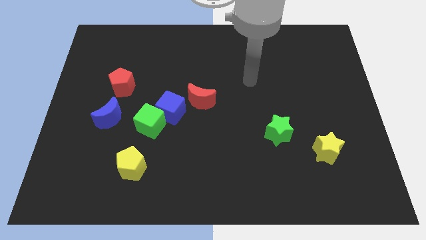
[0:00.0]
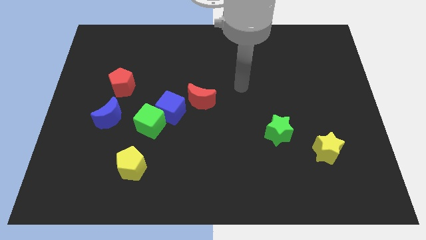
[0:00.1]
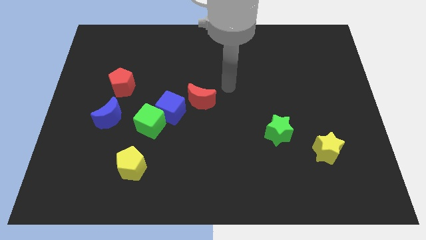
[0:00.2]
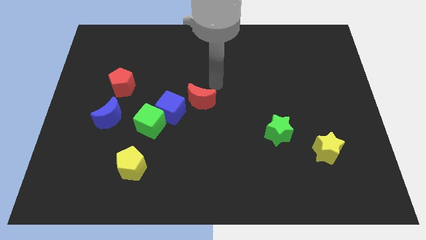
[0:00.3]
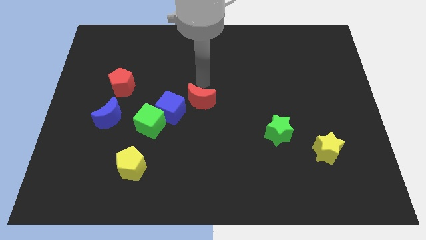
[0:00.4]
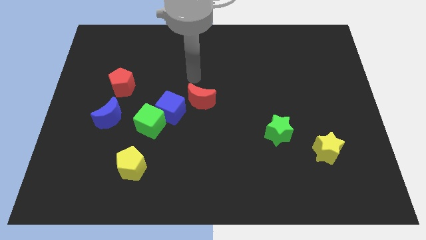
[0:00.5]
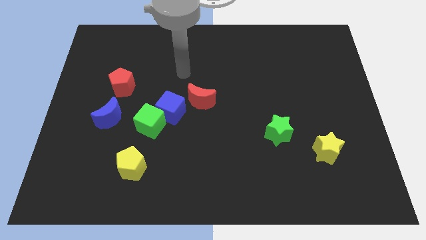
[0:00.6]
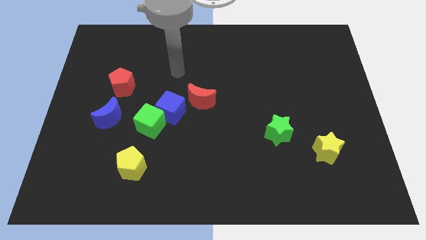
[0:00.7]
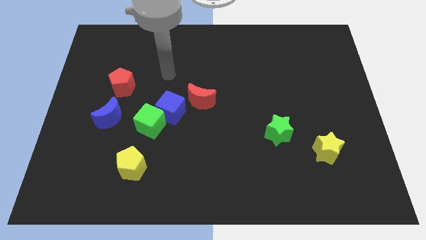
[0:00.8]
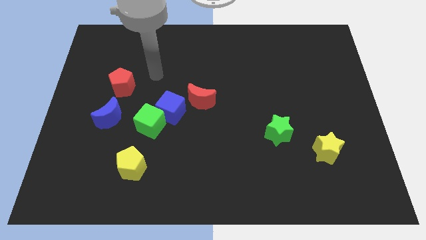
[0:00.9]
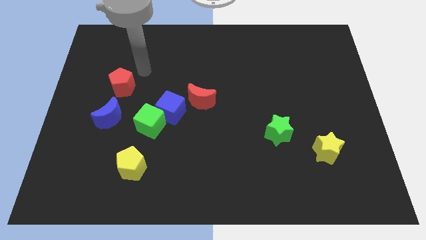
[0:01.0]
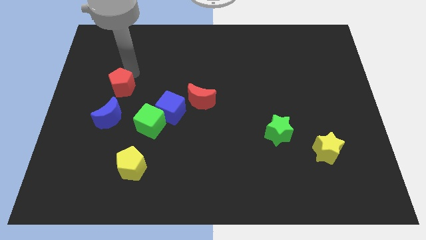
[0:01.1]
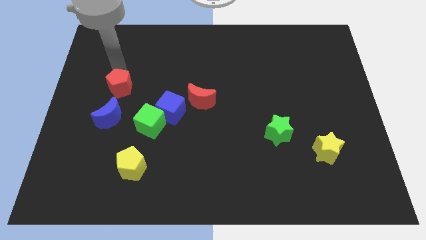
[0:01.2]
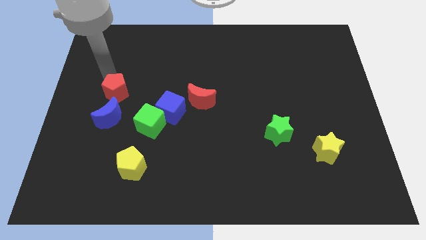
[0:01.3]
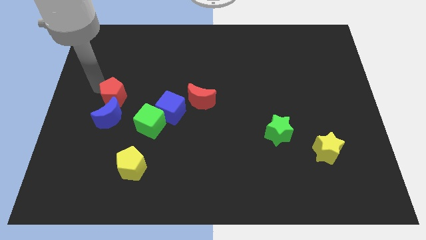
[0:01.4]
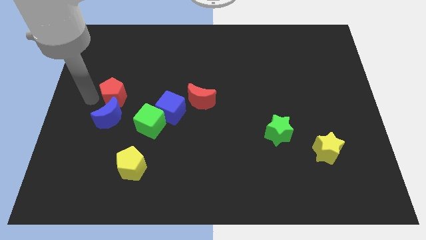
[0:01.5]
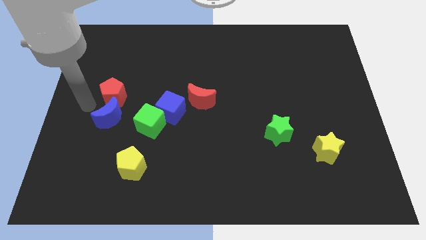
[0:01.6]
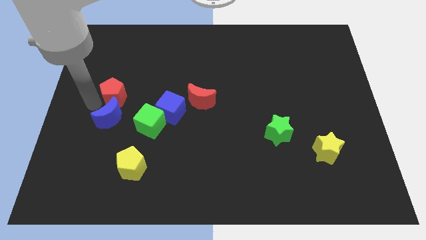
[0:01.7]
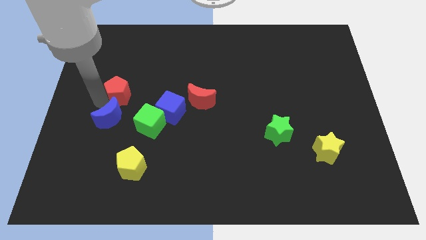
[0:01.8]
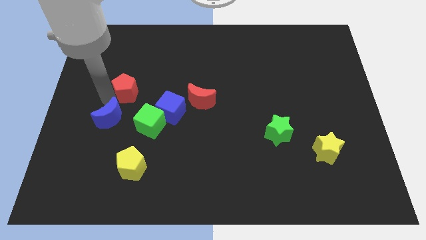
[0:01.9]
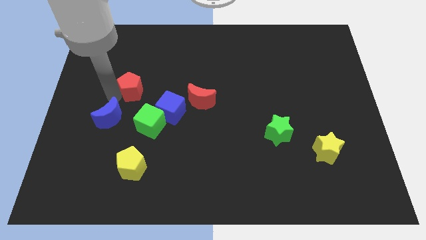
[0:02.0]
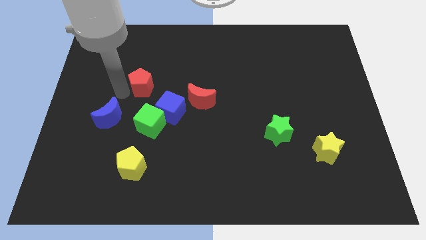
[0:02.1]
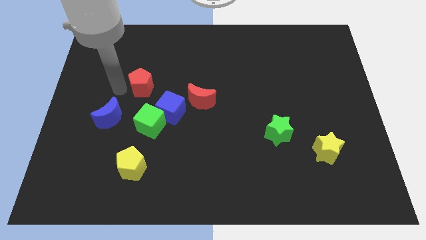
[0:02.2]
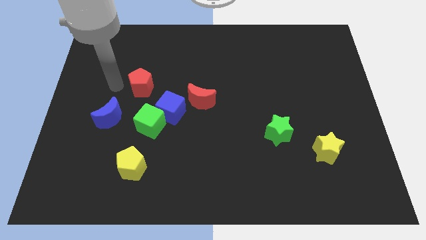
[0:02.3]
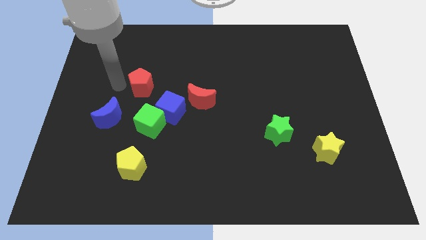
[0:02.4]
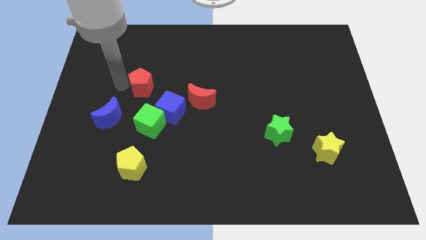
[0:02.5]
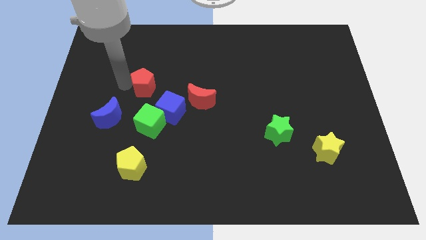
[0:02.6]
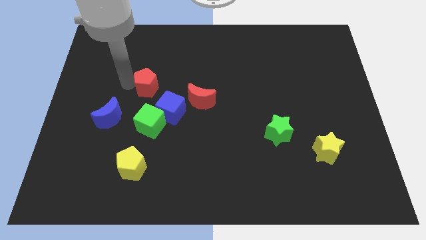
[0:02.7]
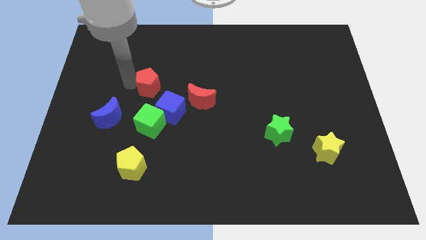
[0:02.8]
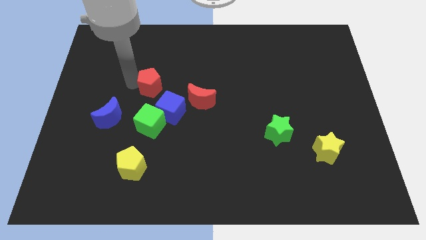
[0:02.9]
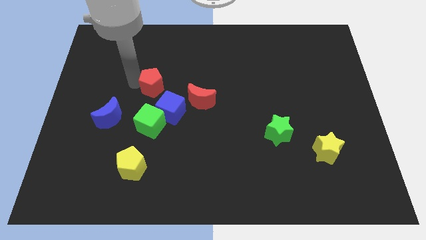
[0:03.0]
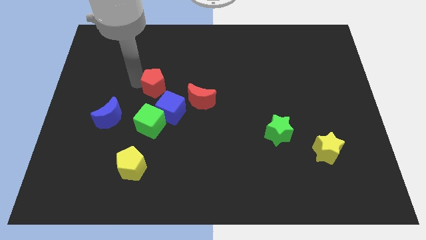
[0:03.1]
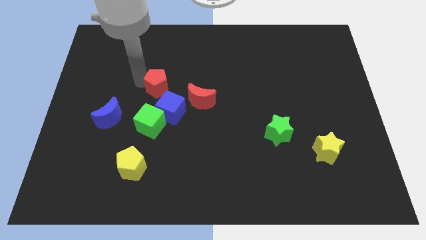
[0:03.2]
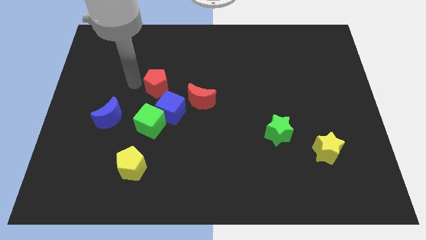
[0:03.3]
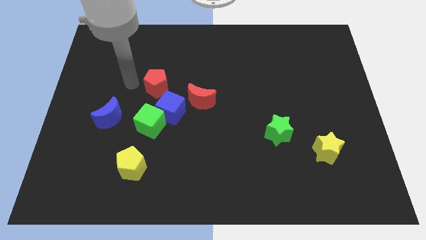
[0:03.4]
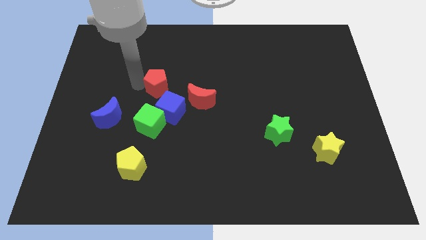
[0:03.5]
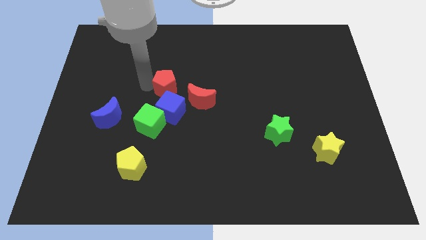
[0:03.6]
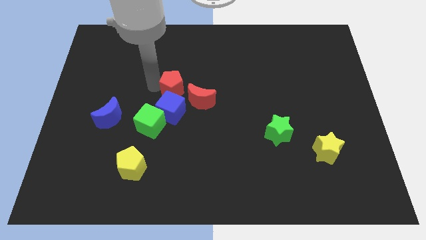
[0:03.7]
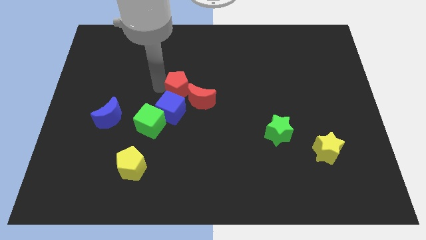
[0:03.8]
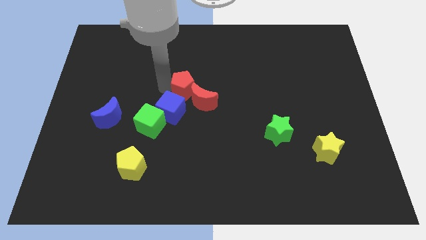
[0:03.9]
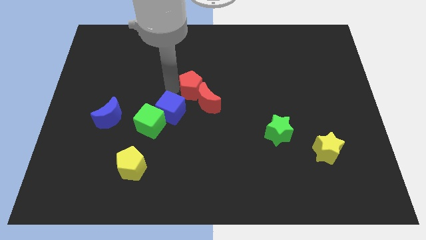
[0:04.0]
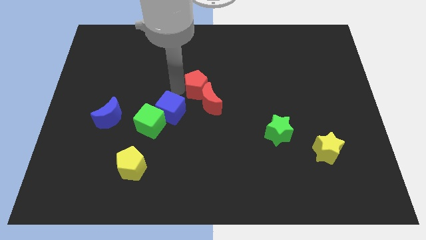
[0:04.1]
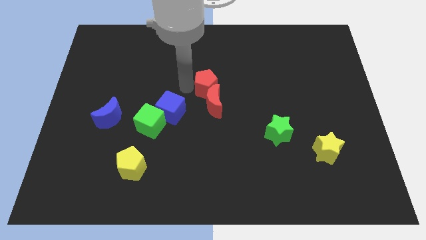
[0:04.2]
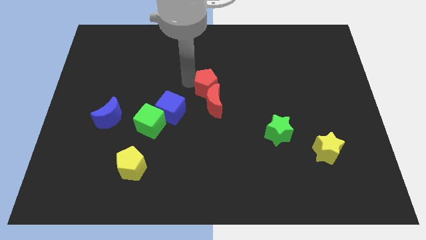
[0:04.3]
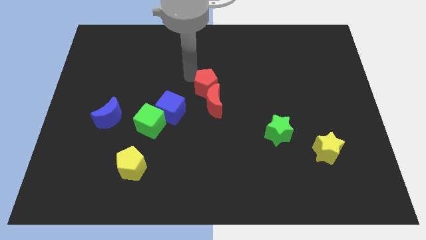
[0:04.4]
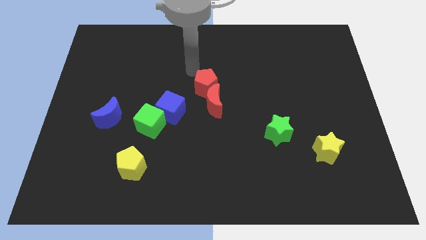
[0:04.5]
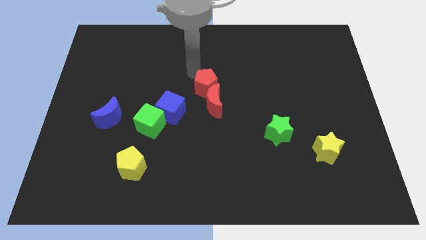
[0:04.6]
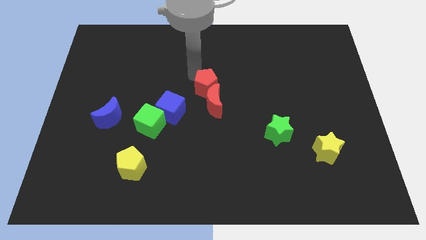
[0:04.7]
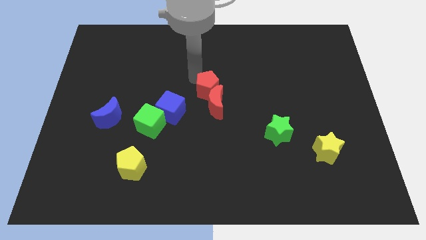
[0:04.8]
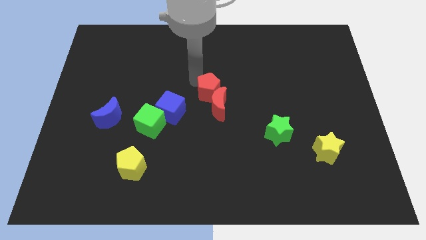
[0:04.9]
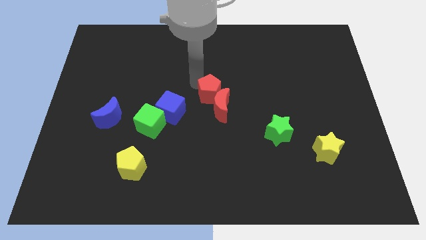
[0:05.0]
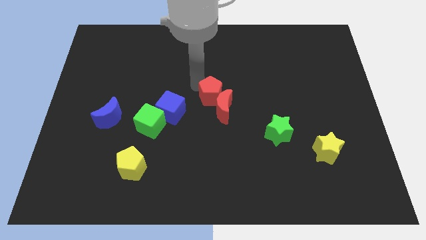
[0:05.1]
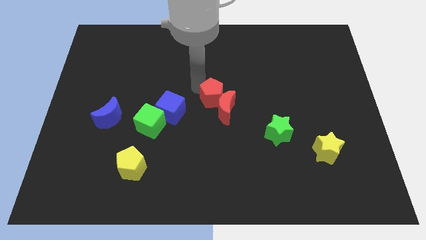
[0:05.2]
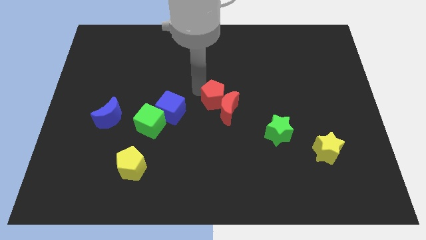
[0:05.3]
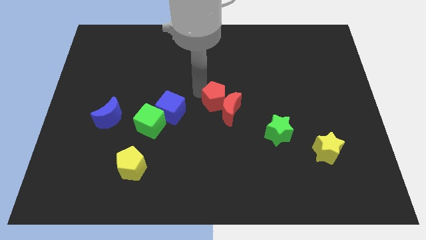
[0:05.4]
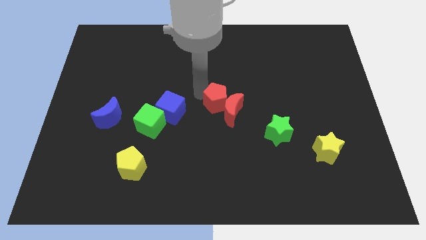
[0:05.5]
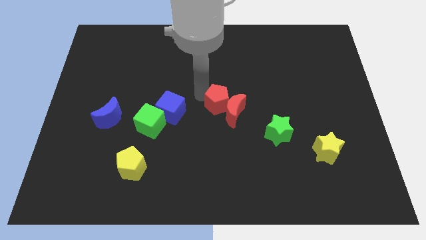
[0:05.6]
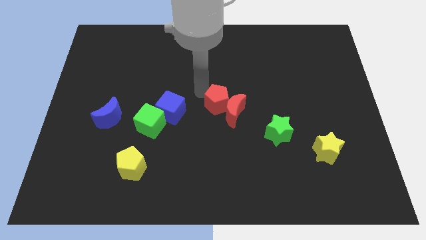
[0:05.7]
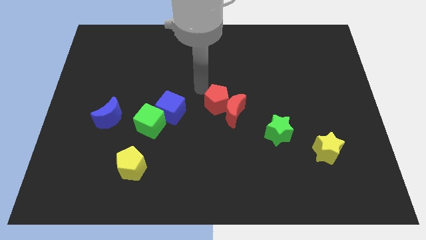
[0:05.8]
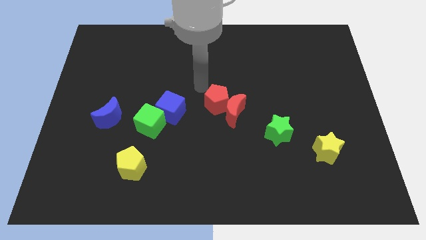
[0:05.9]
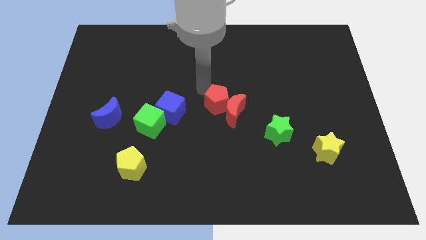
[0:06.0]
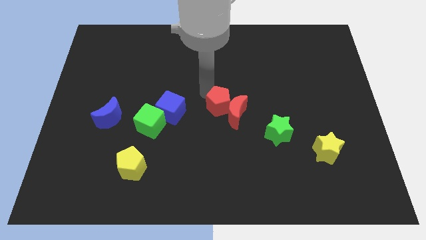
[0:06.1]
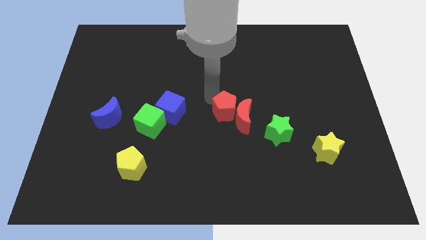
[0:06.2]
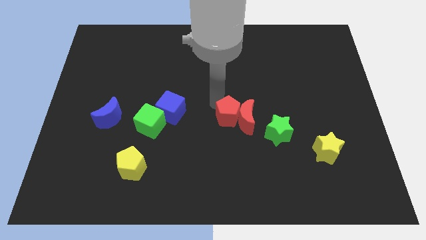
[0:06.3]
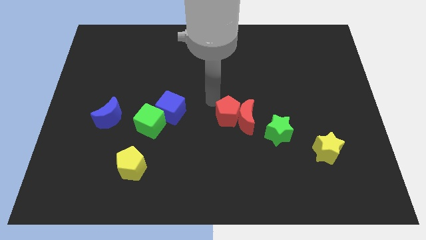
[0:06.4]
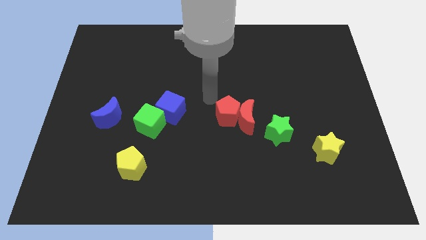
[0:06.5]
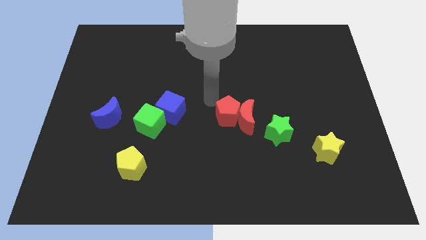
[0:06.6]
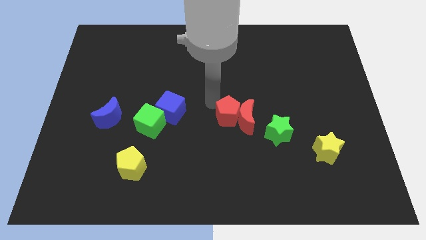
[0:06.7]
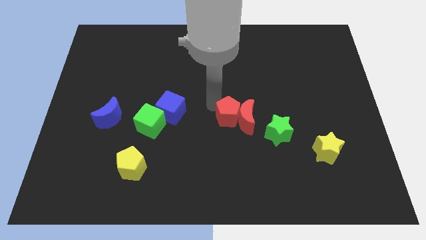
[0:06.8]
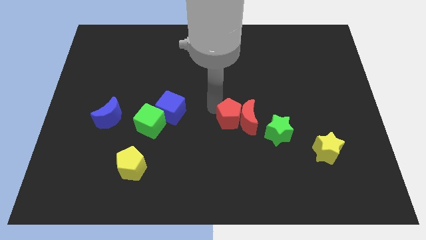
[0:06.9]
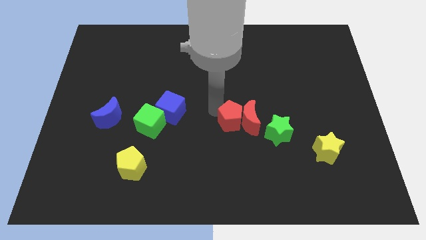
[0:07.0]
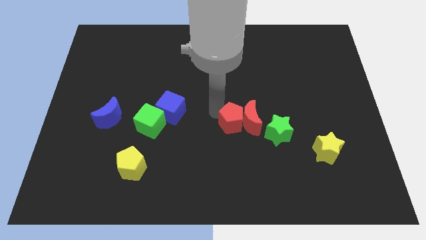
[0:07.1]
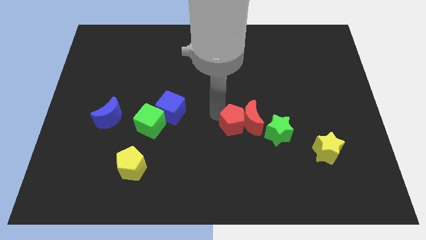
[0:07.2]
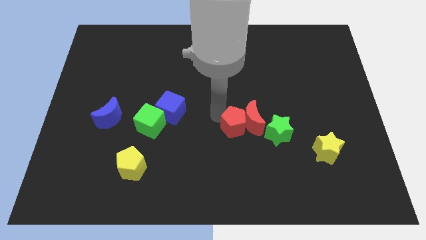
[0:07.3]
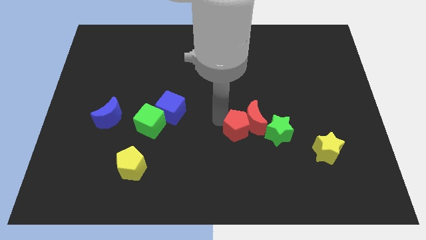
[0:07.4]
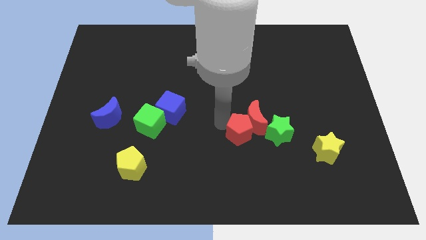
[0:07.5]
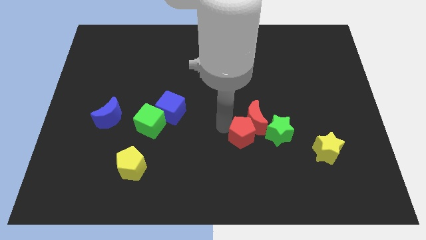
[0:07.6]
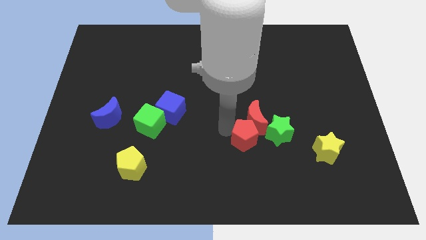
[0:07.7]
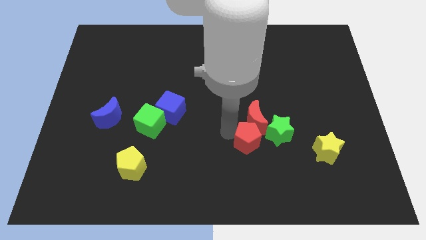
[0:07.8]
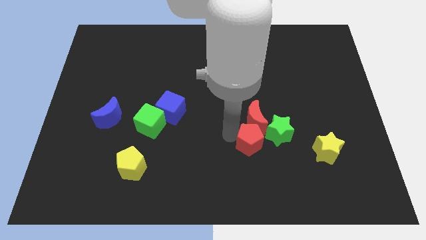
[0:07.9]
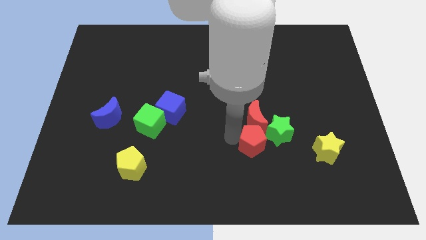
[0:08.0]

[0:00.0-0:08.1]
put the red pentagon left of the yellow star
